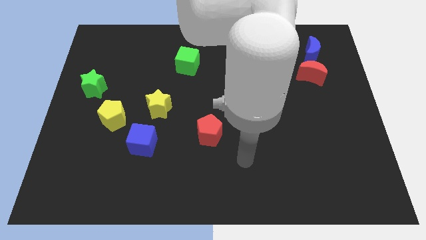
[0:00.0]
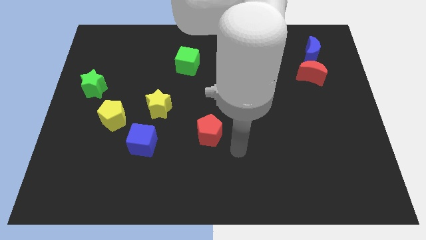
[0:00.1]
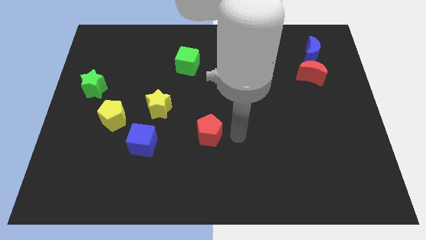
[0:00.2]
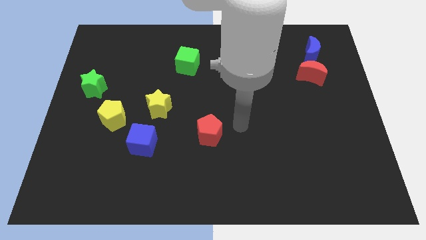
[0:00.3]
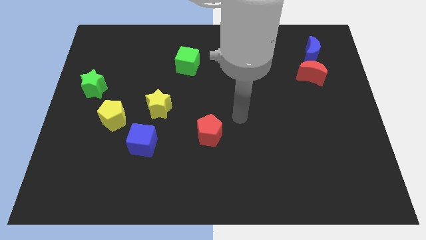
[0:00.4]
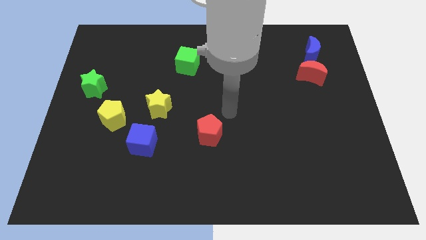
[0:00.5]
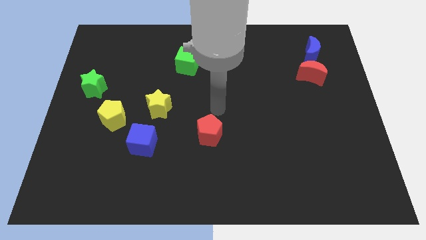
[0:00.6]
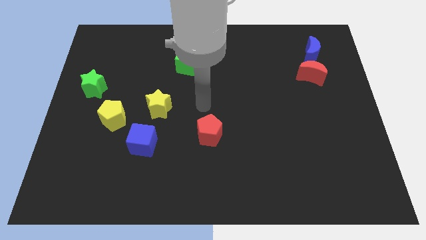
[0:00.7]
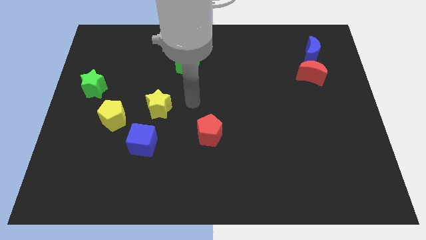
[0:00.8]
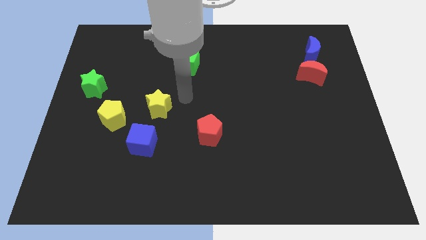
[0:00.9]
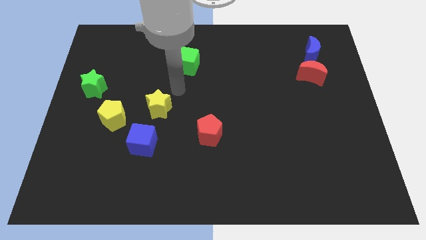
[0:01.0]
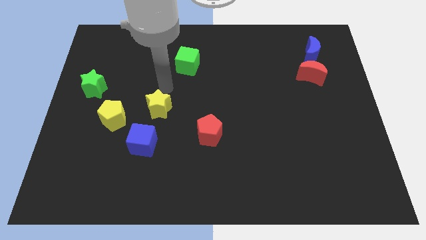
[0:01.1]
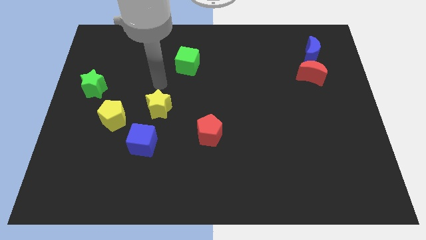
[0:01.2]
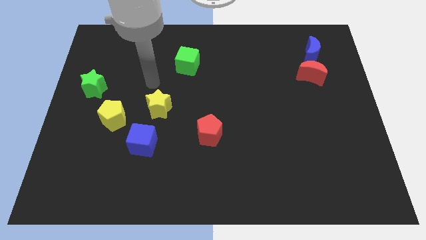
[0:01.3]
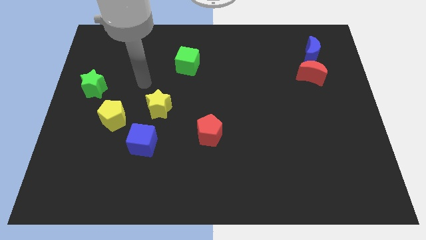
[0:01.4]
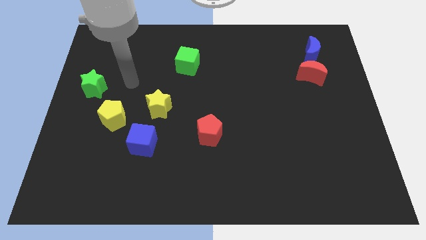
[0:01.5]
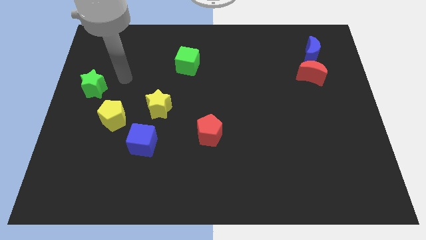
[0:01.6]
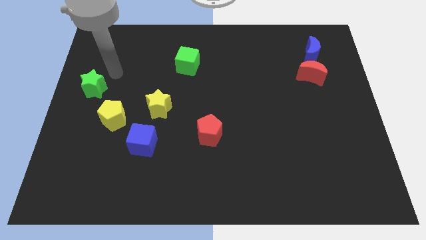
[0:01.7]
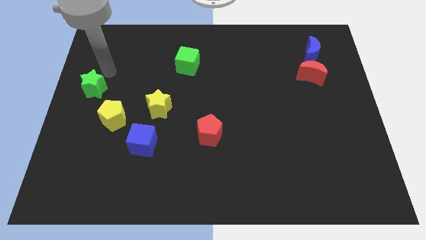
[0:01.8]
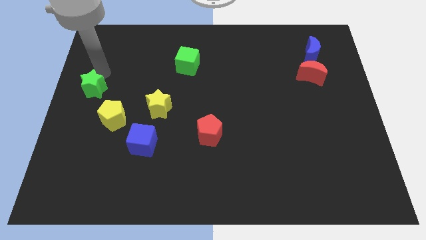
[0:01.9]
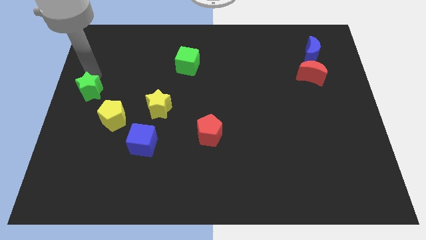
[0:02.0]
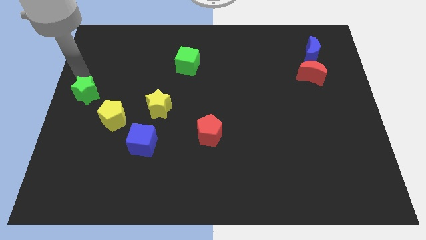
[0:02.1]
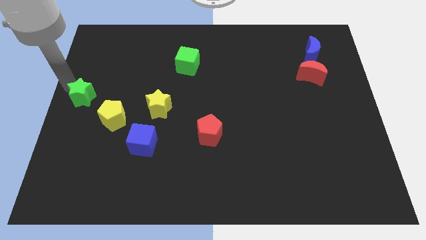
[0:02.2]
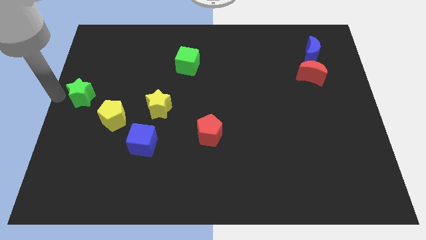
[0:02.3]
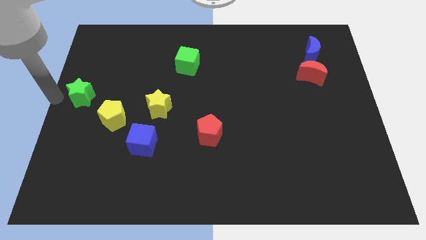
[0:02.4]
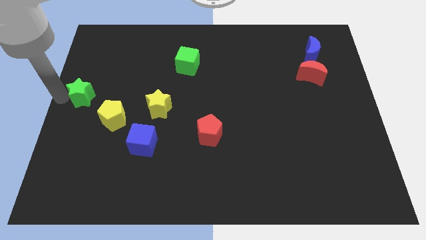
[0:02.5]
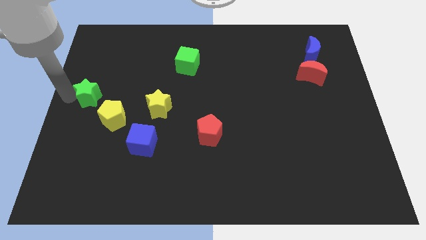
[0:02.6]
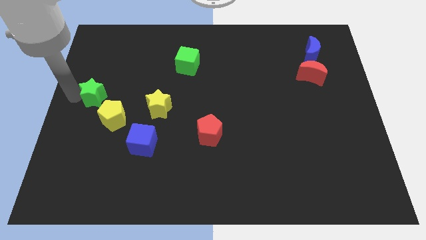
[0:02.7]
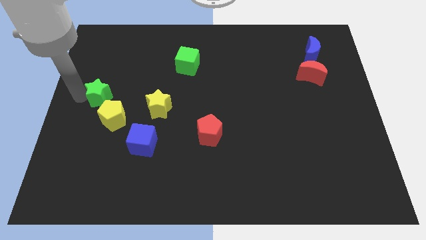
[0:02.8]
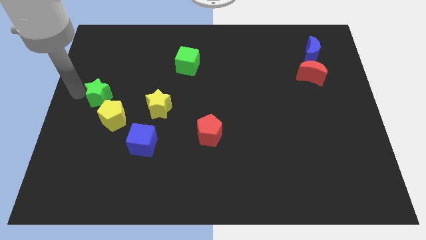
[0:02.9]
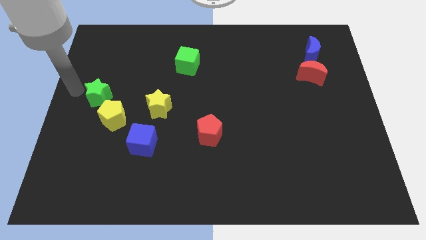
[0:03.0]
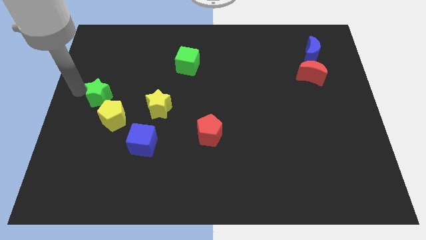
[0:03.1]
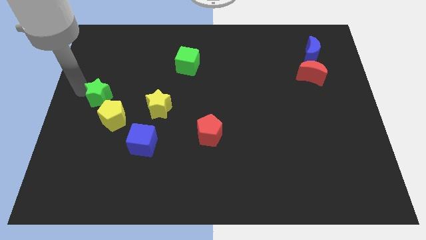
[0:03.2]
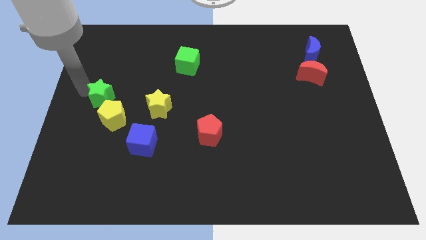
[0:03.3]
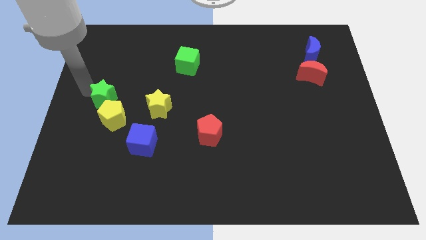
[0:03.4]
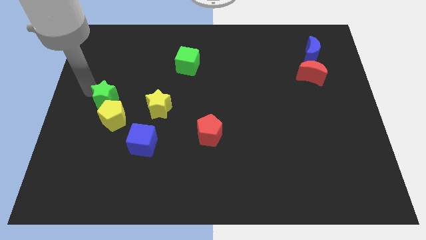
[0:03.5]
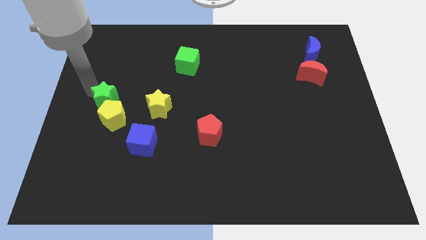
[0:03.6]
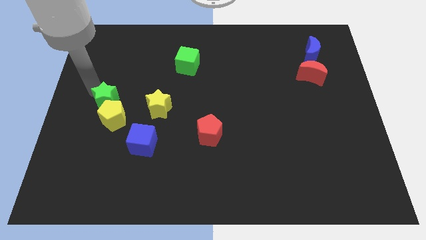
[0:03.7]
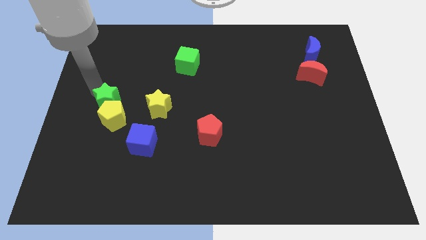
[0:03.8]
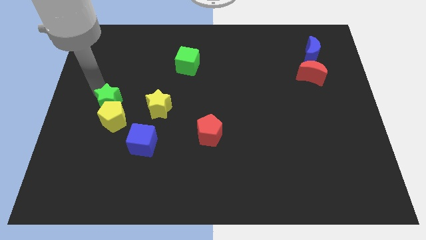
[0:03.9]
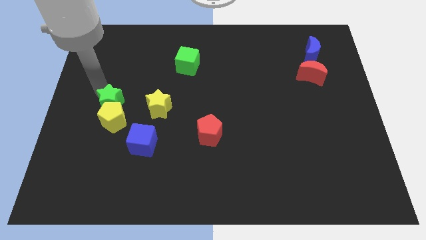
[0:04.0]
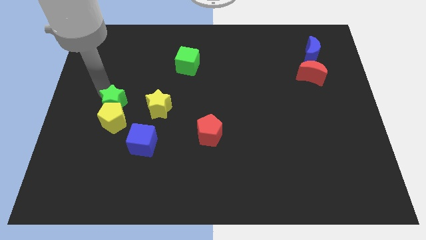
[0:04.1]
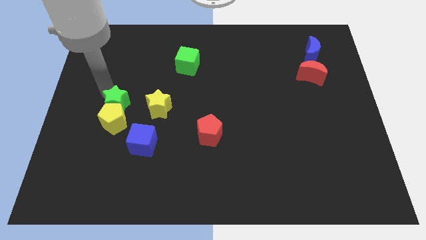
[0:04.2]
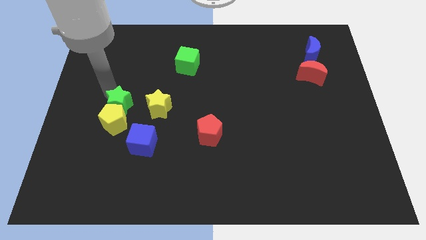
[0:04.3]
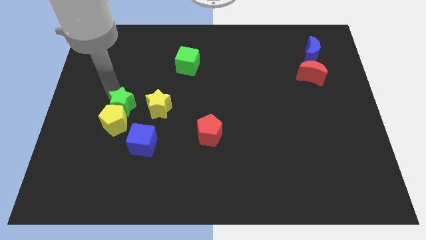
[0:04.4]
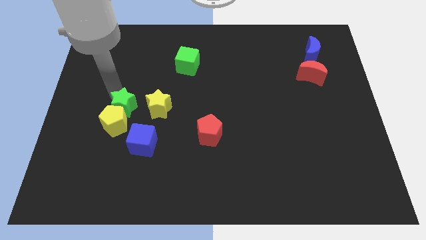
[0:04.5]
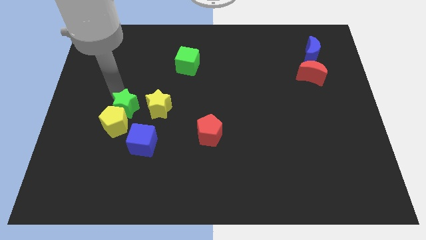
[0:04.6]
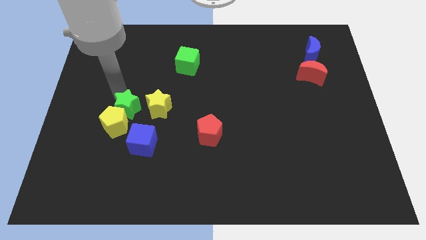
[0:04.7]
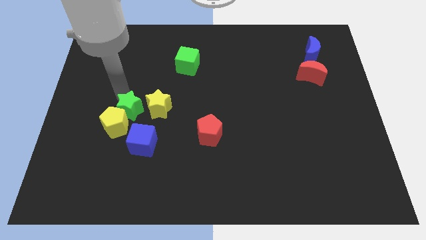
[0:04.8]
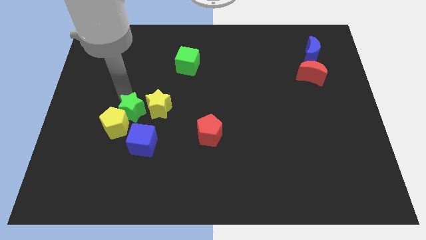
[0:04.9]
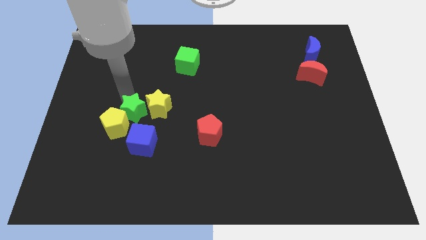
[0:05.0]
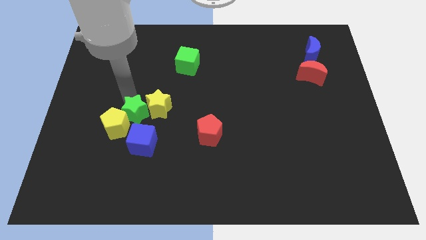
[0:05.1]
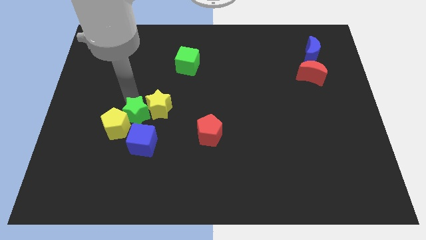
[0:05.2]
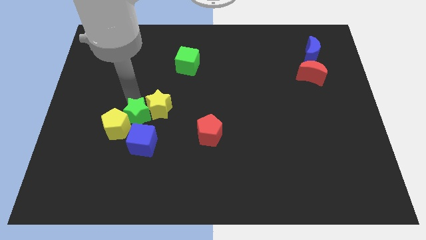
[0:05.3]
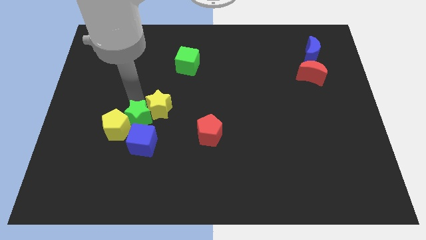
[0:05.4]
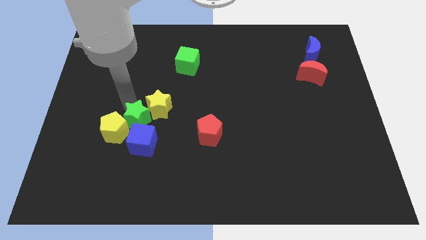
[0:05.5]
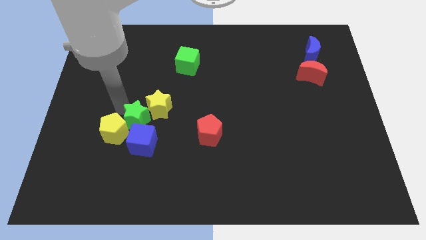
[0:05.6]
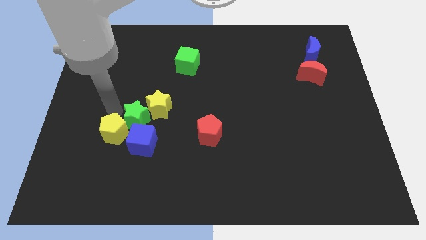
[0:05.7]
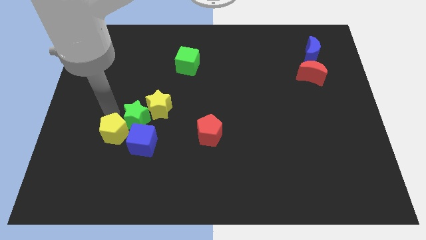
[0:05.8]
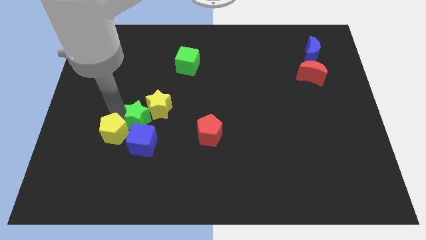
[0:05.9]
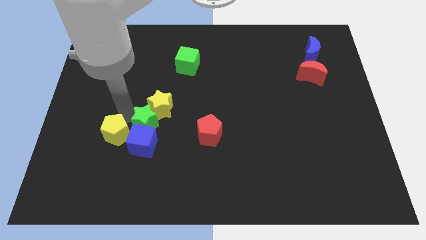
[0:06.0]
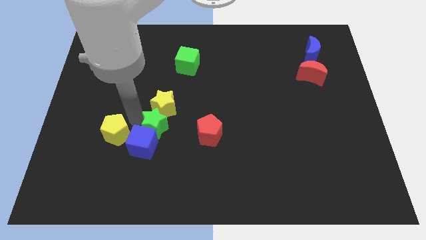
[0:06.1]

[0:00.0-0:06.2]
push the green star diagonally down and to the right of the yellow star
